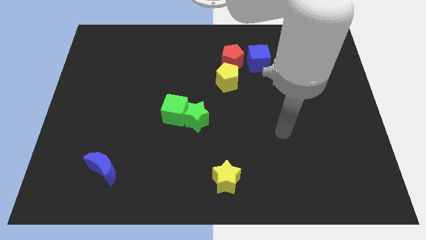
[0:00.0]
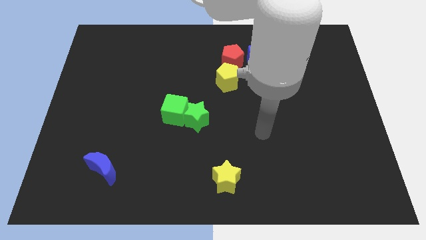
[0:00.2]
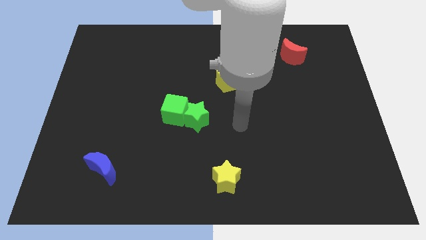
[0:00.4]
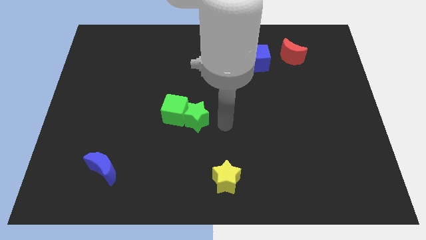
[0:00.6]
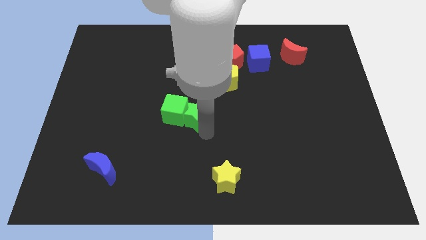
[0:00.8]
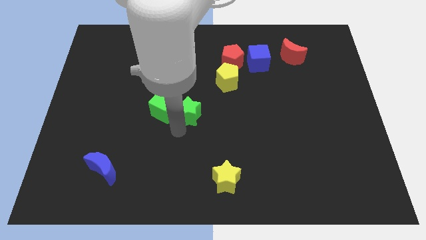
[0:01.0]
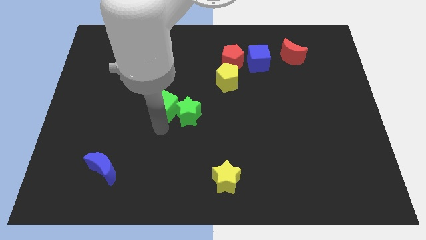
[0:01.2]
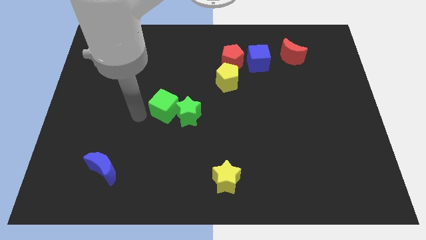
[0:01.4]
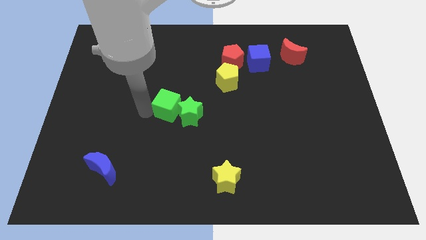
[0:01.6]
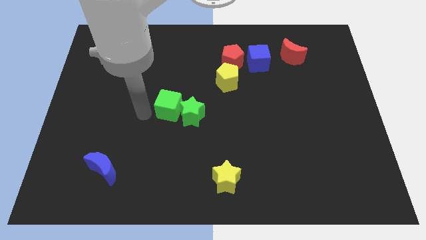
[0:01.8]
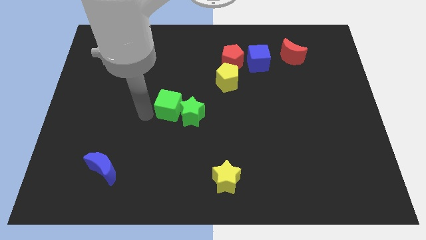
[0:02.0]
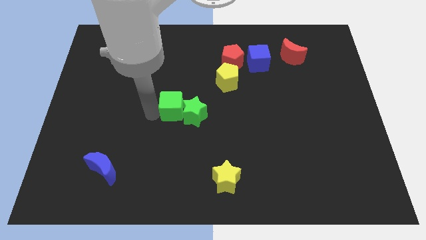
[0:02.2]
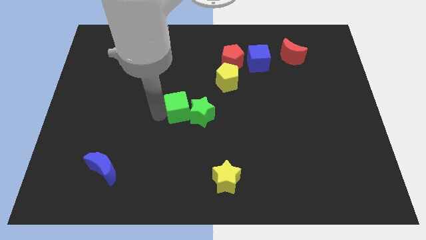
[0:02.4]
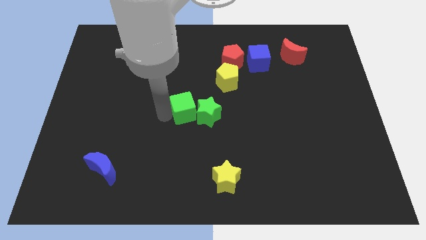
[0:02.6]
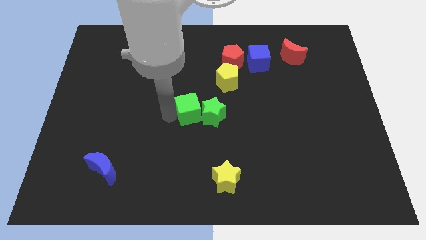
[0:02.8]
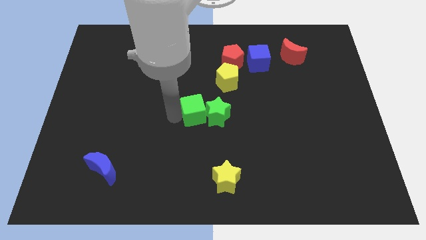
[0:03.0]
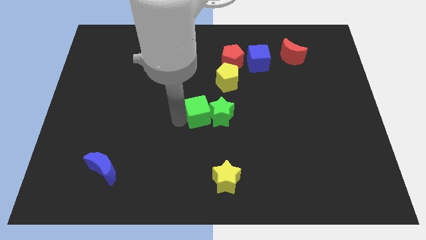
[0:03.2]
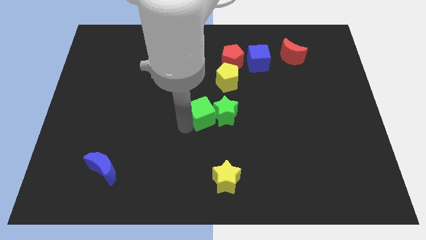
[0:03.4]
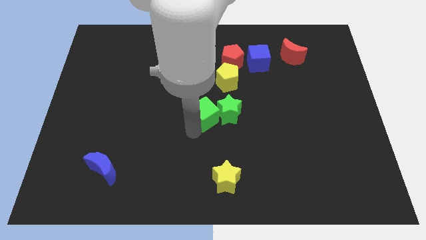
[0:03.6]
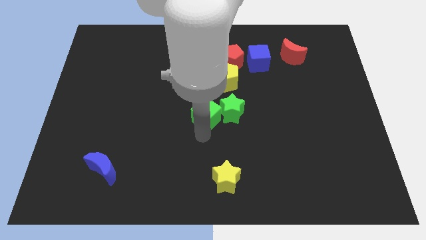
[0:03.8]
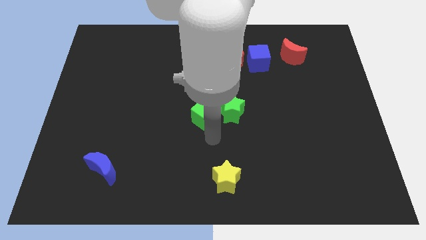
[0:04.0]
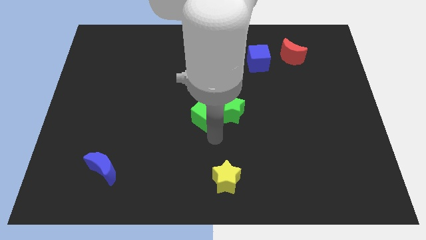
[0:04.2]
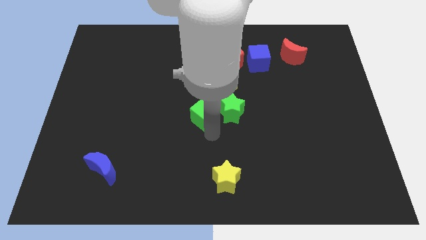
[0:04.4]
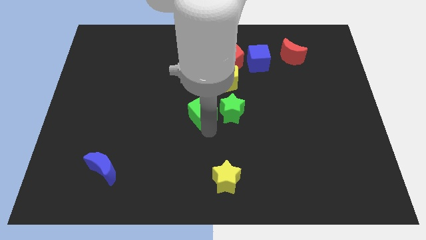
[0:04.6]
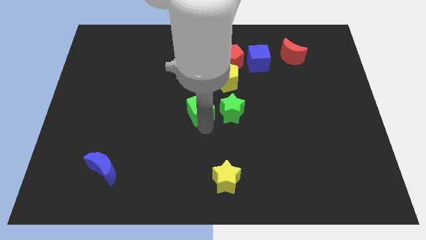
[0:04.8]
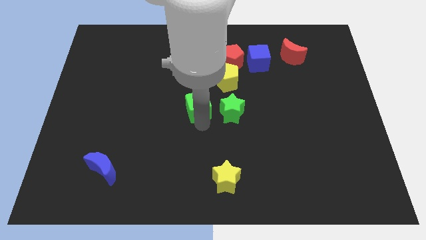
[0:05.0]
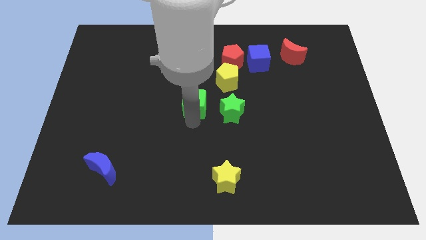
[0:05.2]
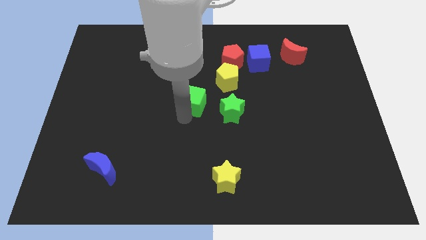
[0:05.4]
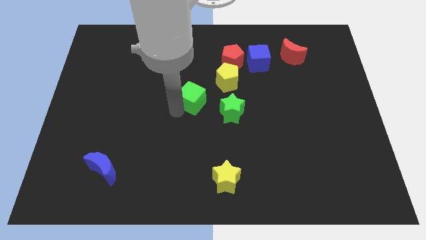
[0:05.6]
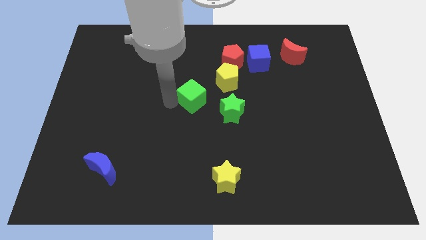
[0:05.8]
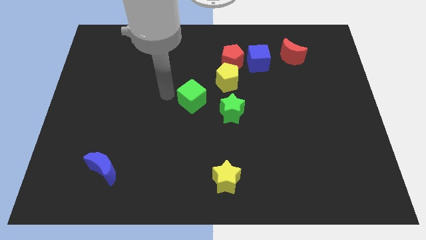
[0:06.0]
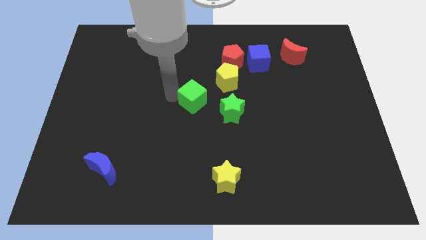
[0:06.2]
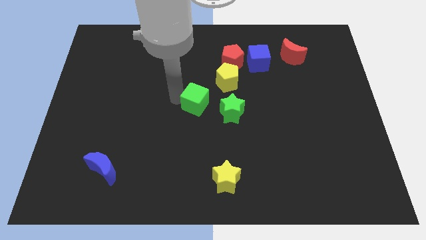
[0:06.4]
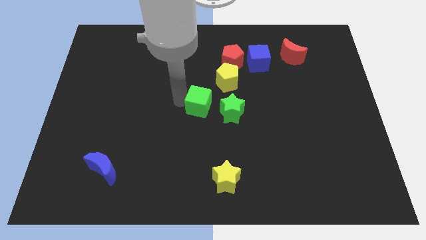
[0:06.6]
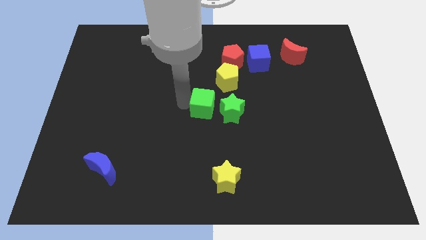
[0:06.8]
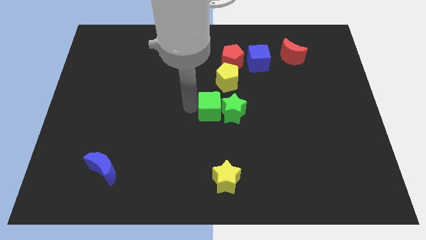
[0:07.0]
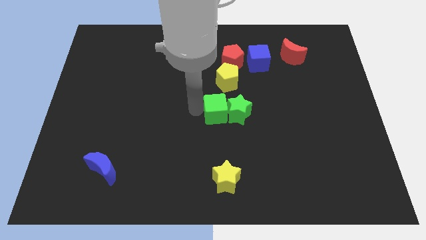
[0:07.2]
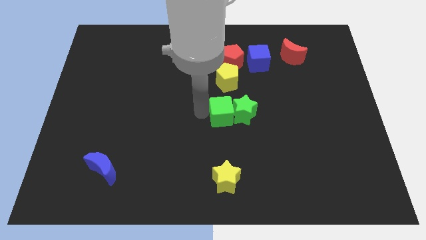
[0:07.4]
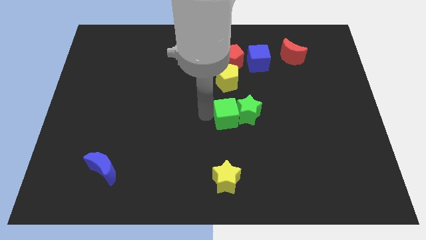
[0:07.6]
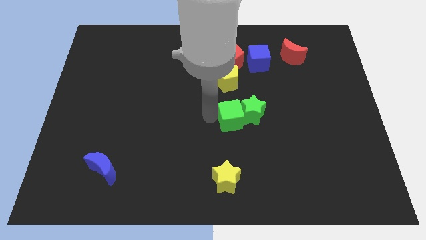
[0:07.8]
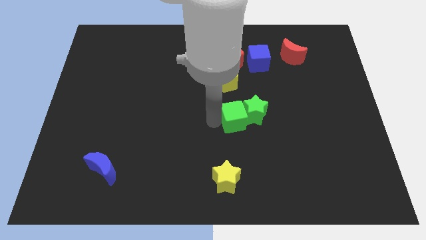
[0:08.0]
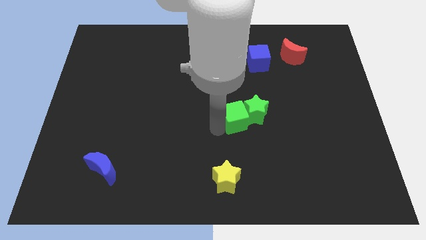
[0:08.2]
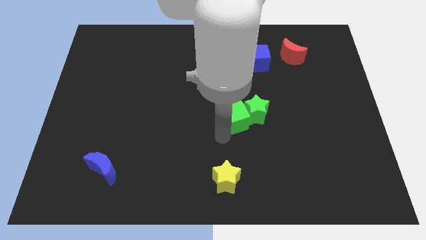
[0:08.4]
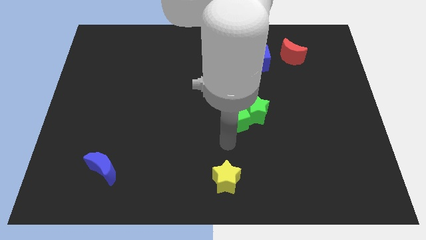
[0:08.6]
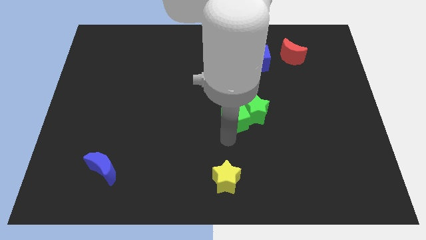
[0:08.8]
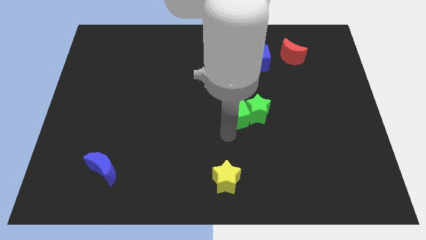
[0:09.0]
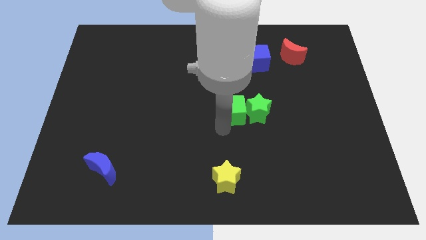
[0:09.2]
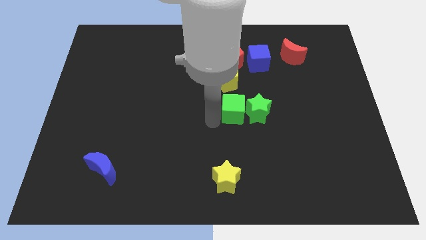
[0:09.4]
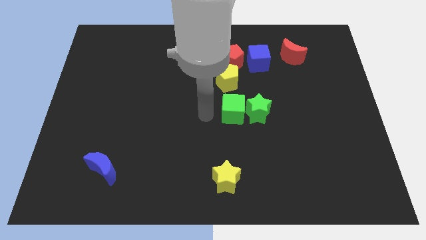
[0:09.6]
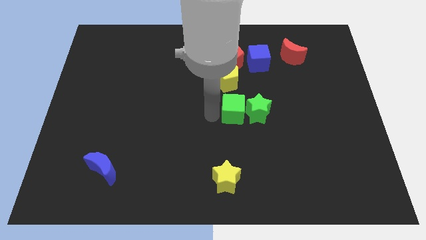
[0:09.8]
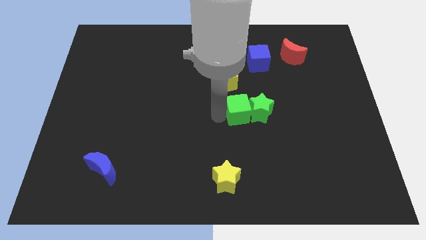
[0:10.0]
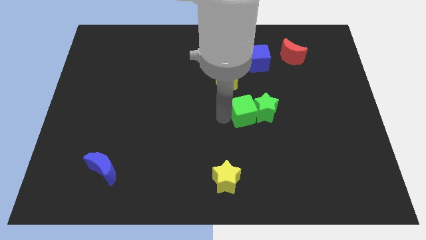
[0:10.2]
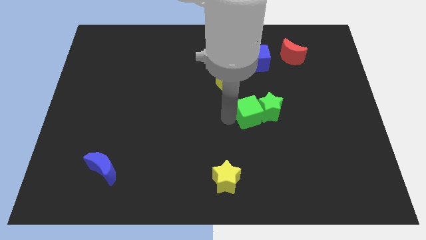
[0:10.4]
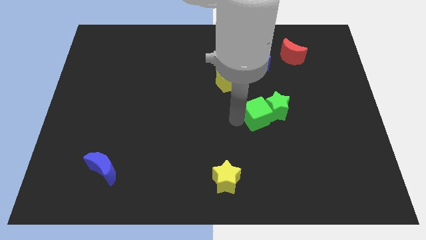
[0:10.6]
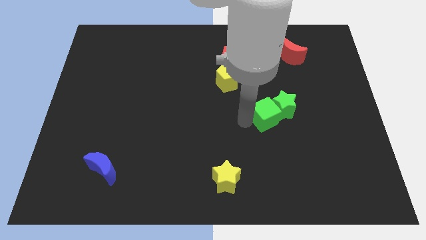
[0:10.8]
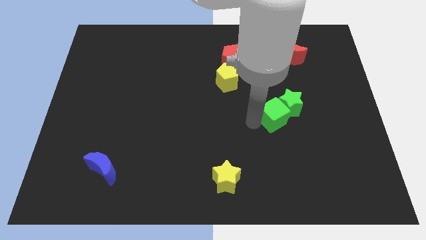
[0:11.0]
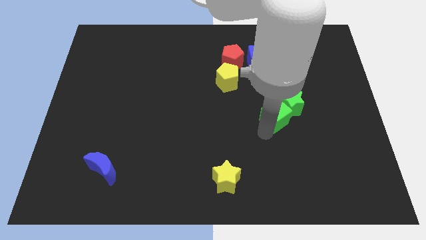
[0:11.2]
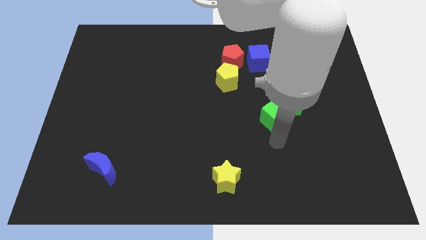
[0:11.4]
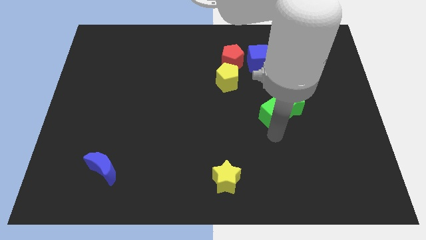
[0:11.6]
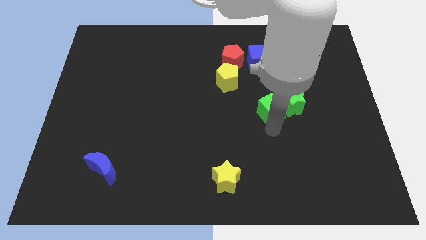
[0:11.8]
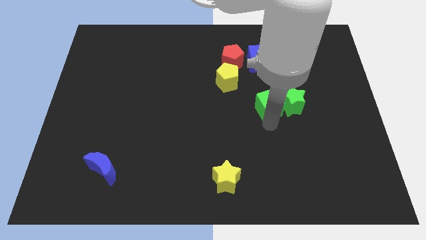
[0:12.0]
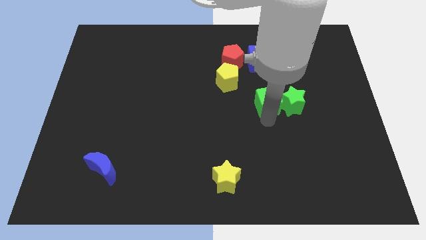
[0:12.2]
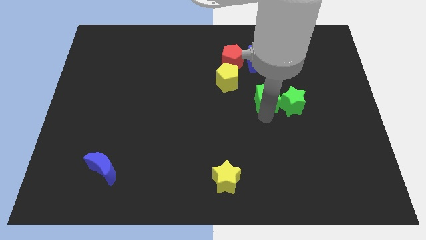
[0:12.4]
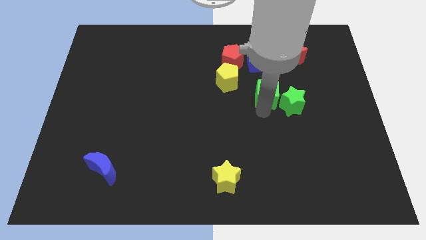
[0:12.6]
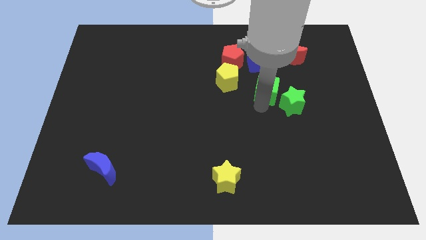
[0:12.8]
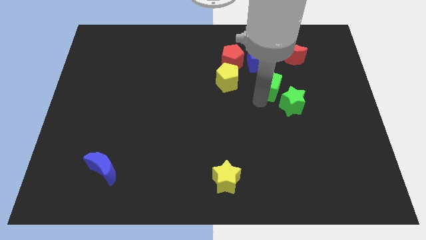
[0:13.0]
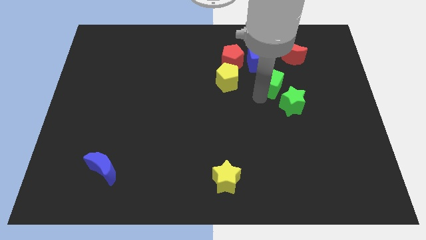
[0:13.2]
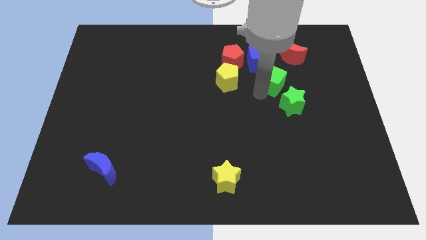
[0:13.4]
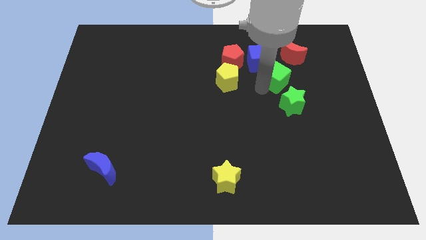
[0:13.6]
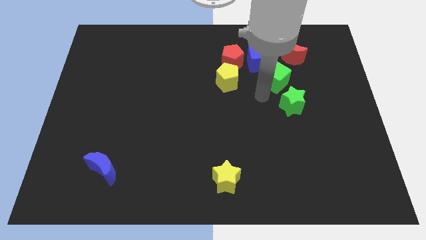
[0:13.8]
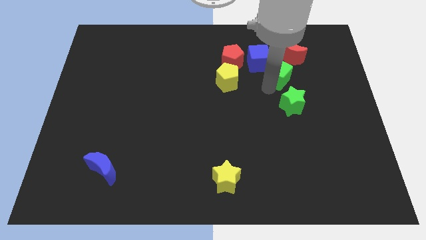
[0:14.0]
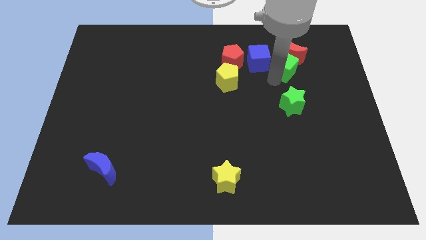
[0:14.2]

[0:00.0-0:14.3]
put the green cube to the red moon
